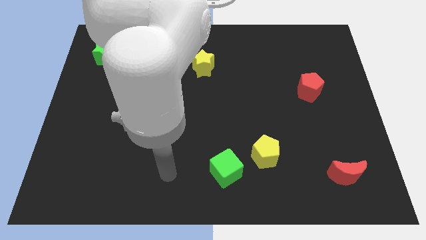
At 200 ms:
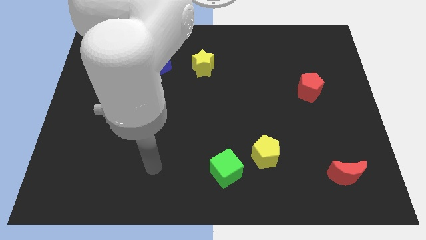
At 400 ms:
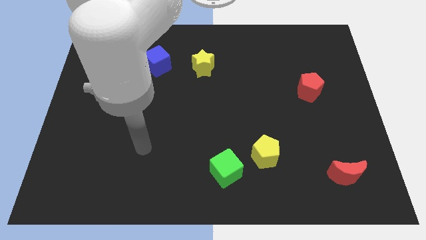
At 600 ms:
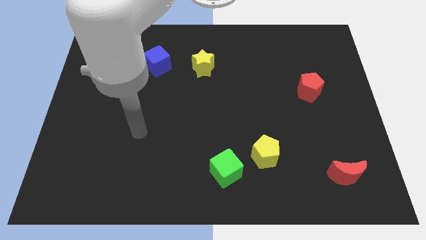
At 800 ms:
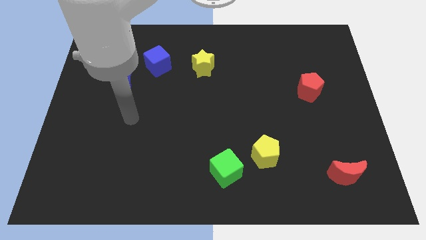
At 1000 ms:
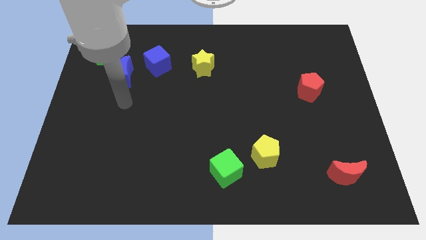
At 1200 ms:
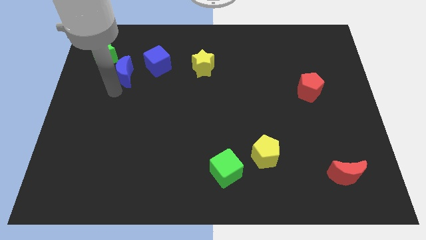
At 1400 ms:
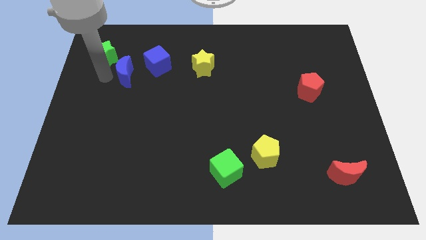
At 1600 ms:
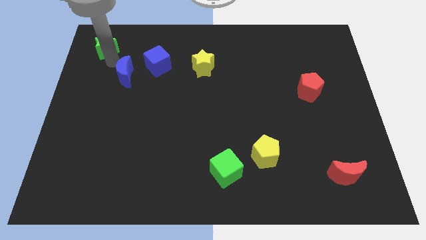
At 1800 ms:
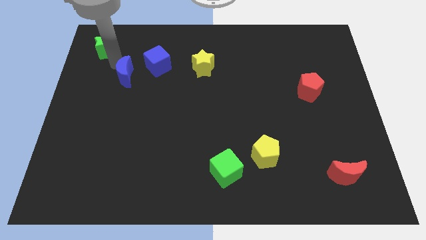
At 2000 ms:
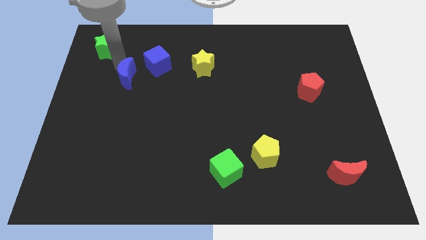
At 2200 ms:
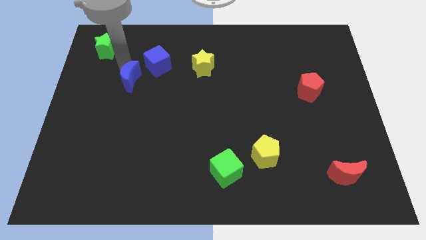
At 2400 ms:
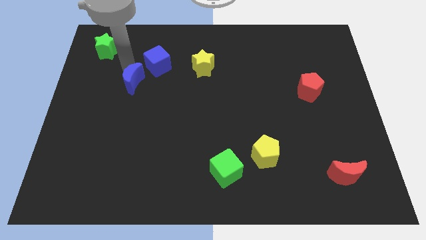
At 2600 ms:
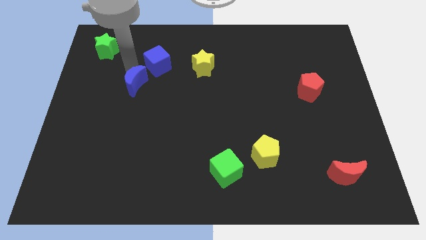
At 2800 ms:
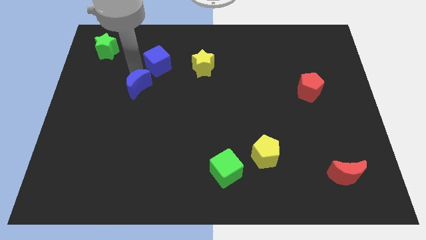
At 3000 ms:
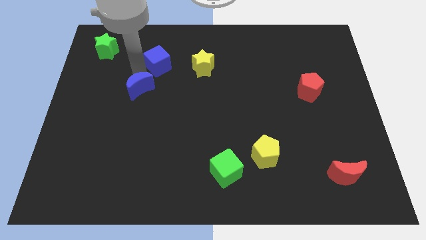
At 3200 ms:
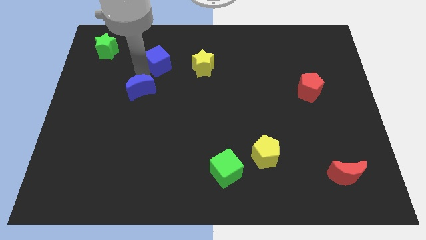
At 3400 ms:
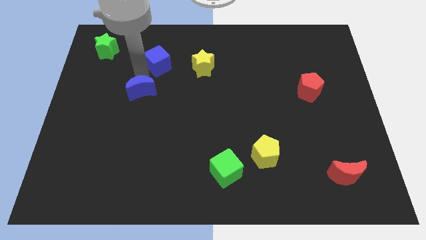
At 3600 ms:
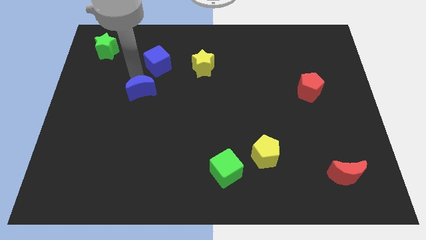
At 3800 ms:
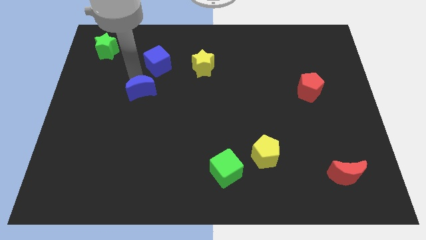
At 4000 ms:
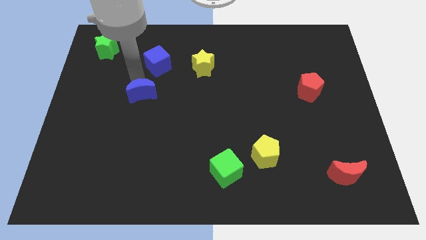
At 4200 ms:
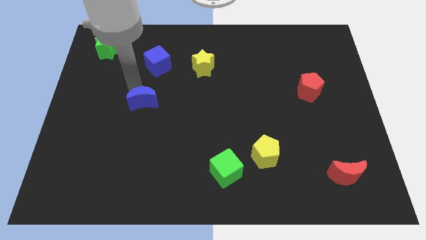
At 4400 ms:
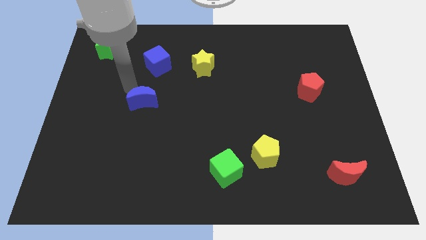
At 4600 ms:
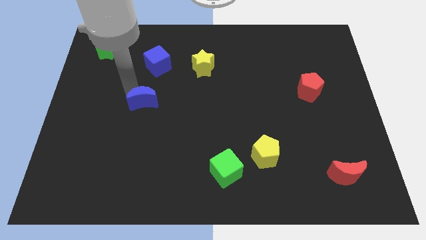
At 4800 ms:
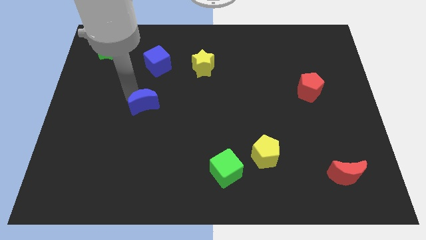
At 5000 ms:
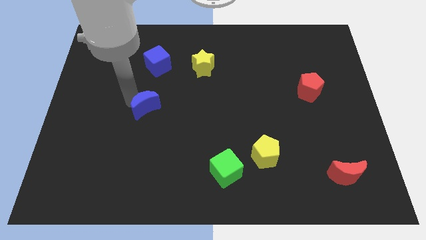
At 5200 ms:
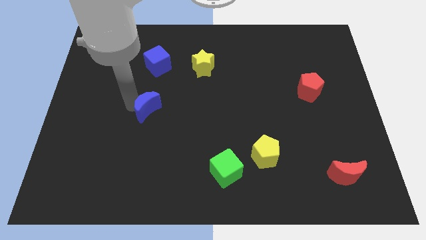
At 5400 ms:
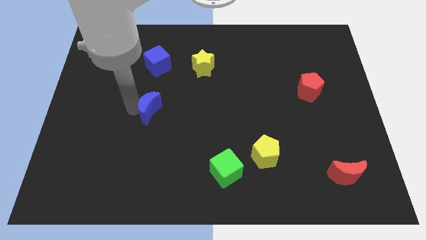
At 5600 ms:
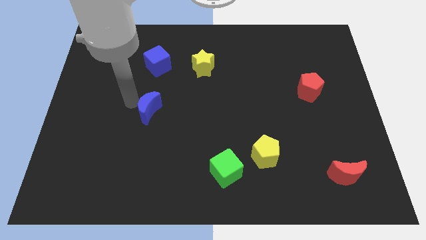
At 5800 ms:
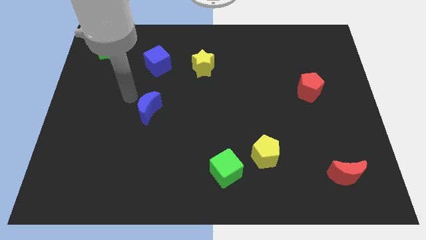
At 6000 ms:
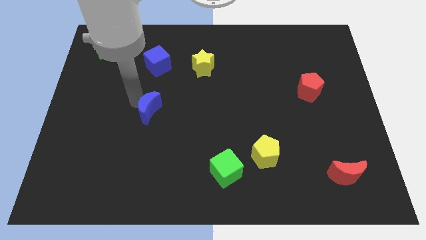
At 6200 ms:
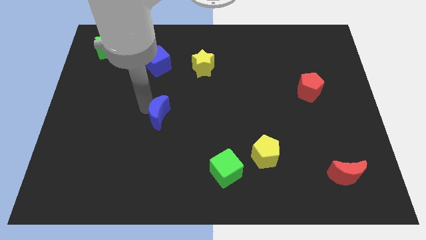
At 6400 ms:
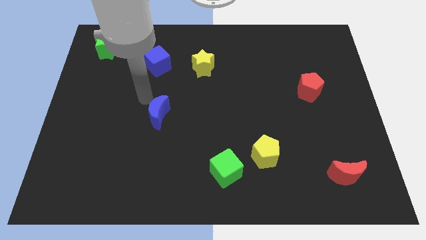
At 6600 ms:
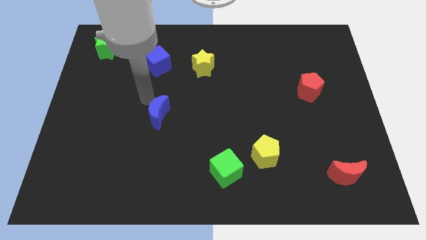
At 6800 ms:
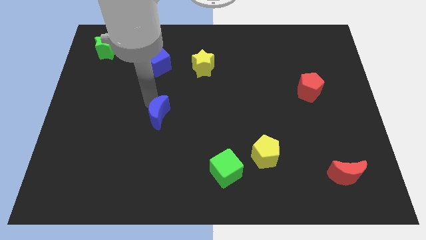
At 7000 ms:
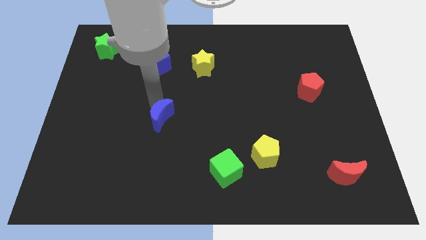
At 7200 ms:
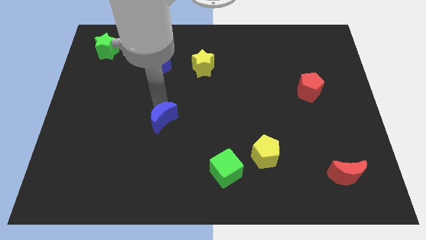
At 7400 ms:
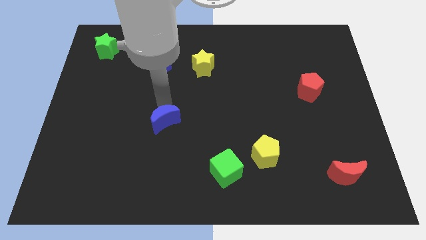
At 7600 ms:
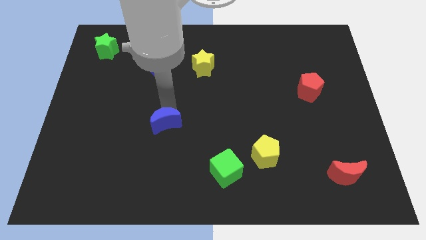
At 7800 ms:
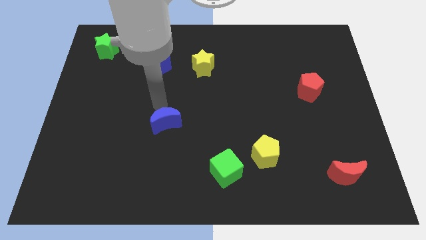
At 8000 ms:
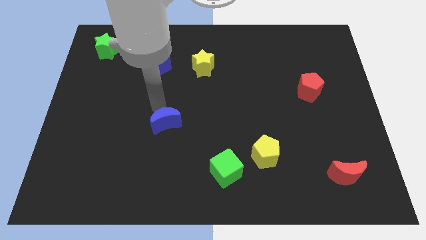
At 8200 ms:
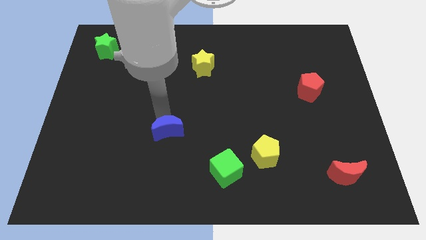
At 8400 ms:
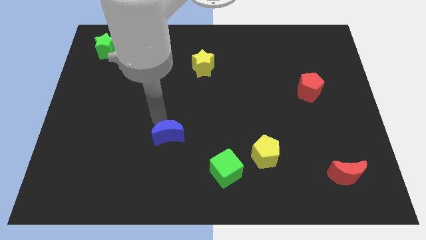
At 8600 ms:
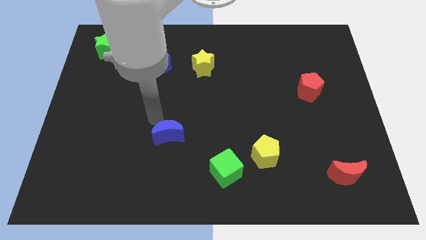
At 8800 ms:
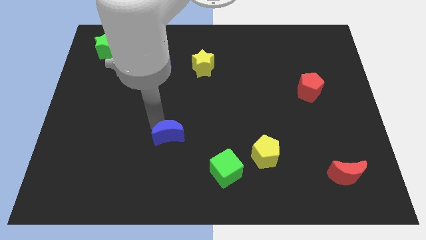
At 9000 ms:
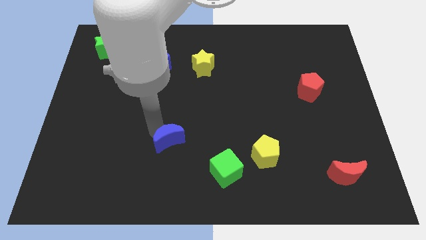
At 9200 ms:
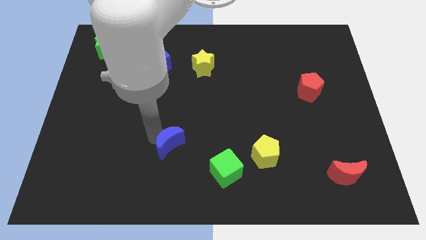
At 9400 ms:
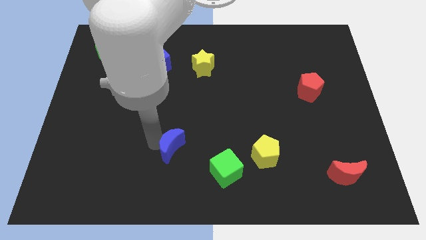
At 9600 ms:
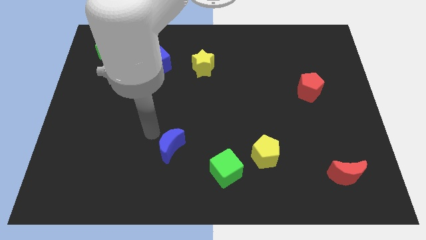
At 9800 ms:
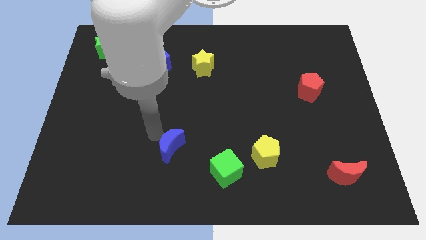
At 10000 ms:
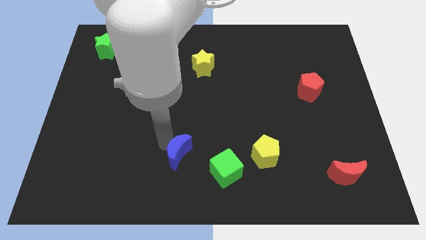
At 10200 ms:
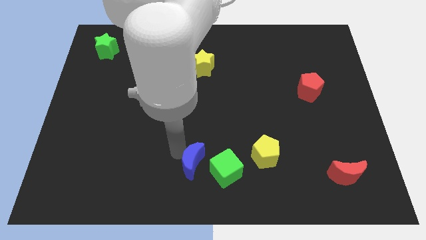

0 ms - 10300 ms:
put the blue moon to the bottom side

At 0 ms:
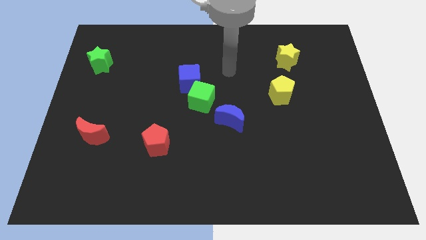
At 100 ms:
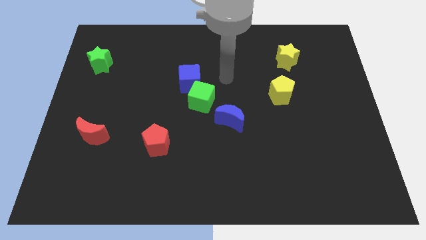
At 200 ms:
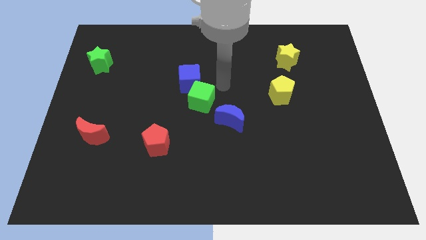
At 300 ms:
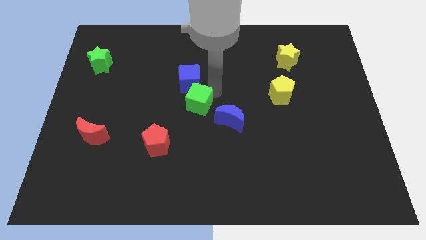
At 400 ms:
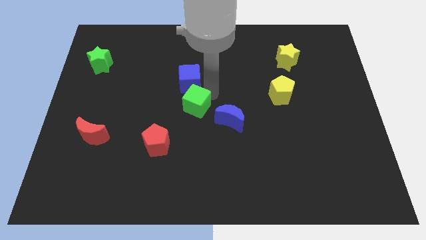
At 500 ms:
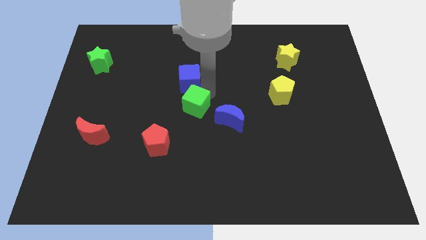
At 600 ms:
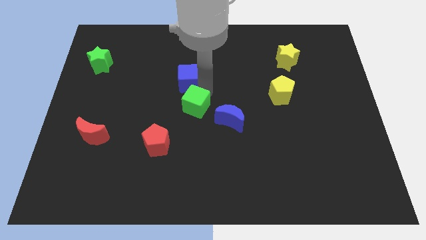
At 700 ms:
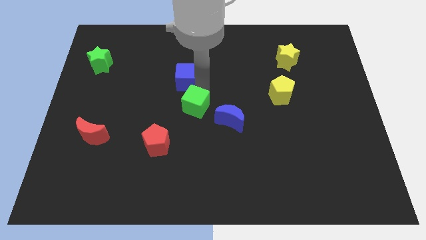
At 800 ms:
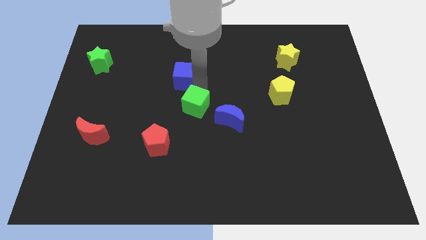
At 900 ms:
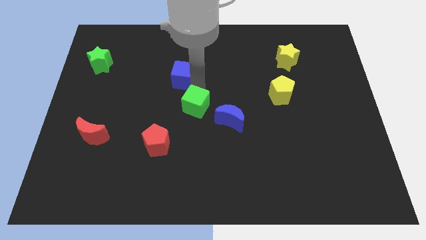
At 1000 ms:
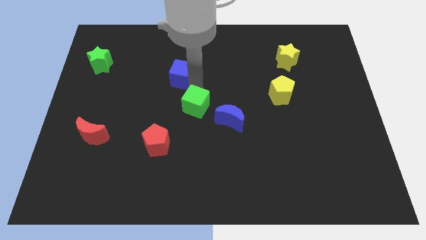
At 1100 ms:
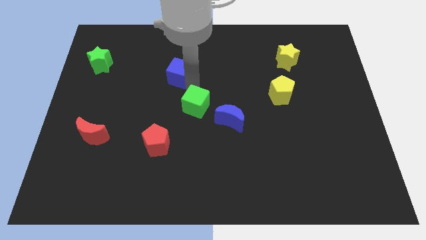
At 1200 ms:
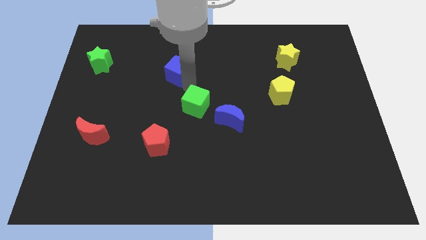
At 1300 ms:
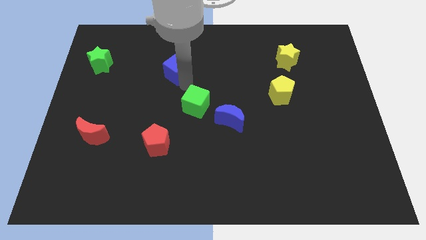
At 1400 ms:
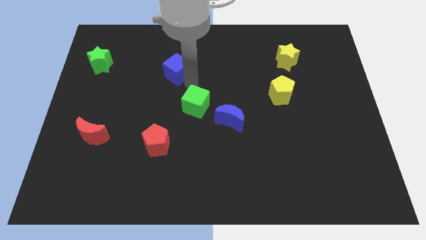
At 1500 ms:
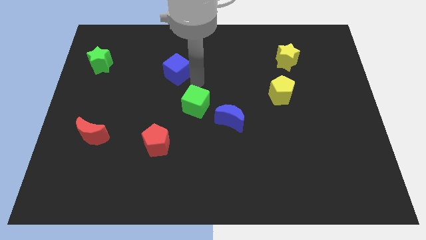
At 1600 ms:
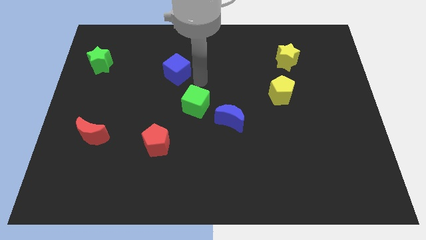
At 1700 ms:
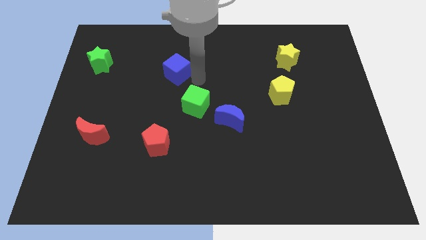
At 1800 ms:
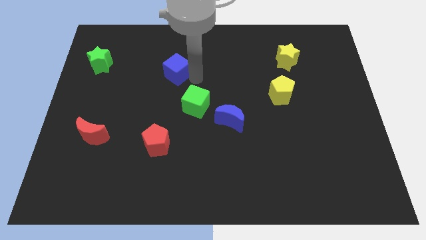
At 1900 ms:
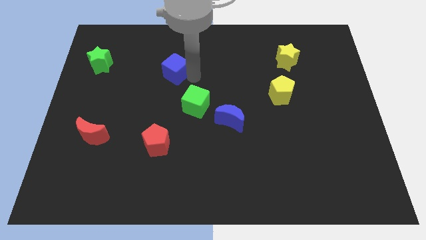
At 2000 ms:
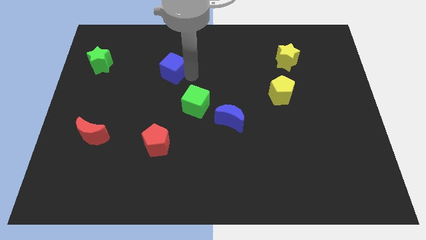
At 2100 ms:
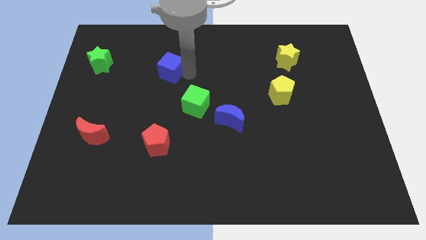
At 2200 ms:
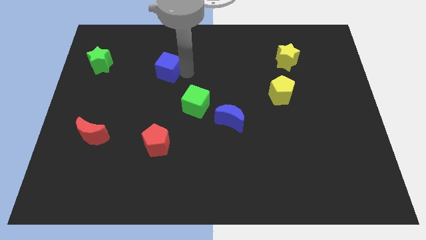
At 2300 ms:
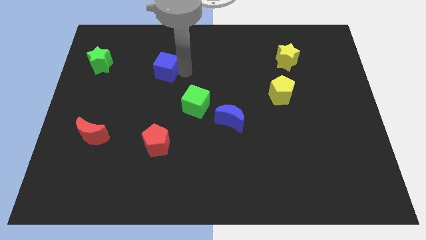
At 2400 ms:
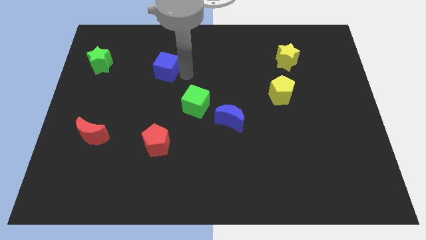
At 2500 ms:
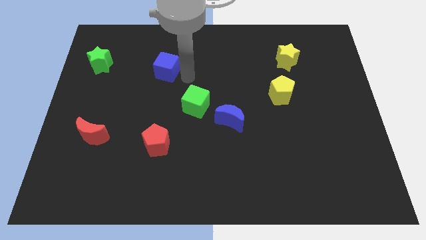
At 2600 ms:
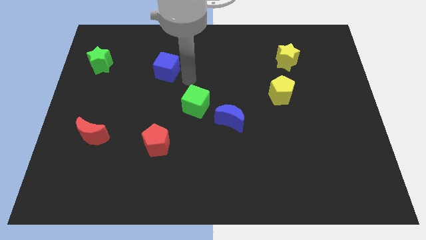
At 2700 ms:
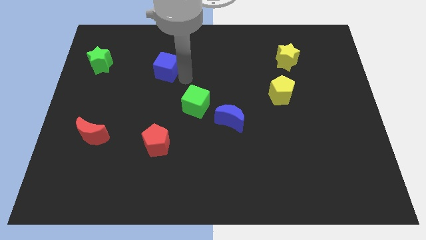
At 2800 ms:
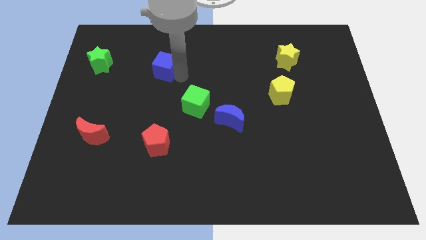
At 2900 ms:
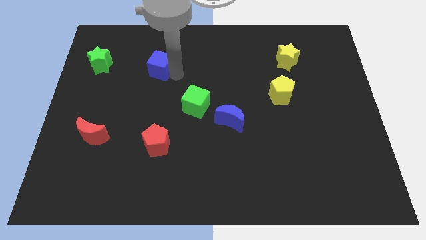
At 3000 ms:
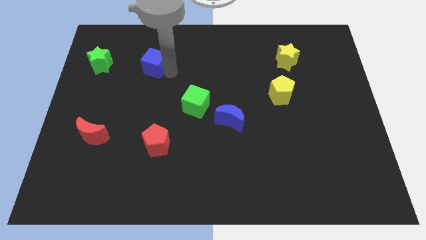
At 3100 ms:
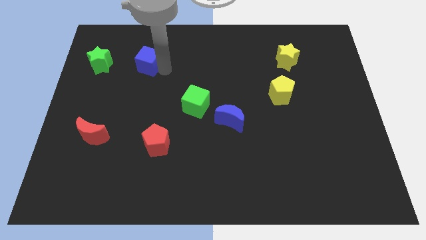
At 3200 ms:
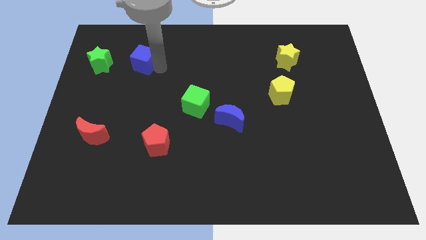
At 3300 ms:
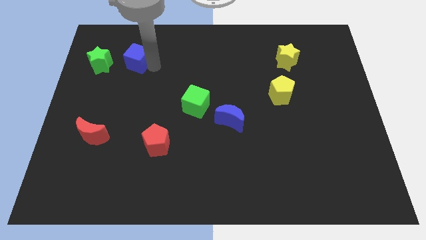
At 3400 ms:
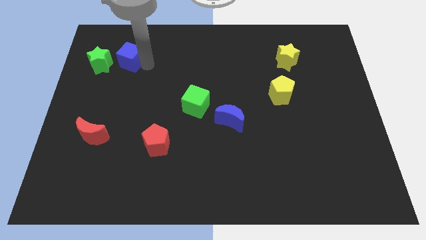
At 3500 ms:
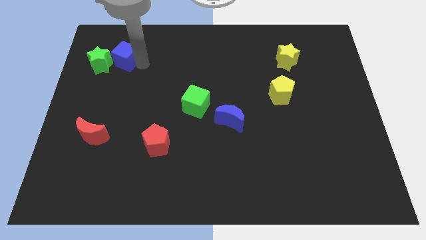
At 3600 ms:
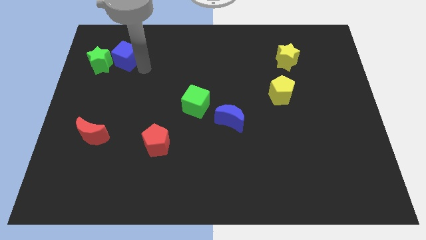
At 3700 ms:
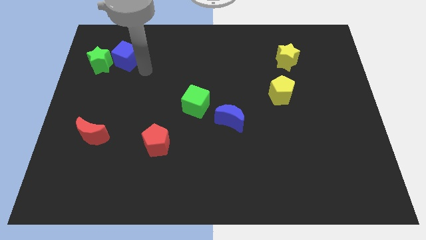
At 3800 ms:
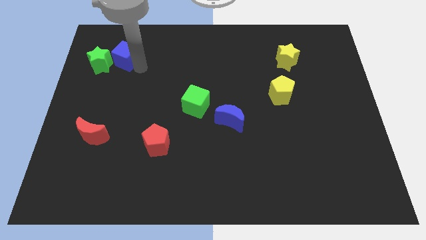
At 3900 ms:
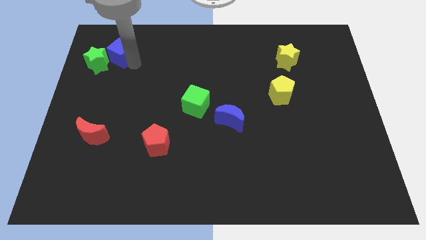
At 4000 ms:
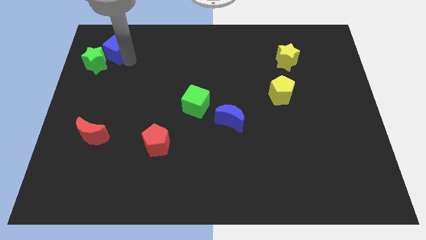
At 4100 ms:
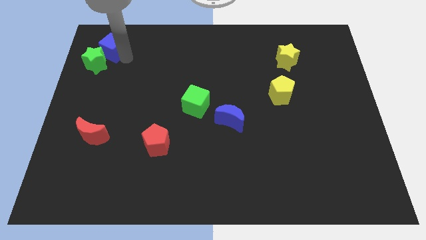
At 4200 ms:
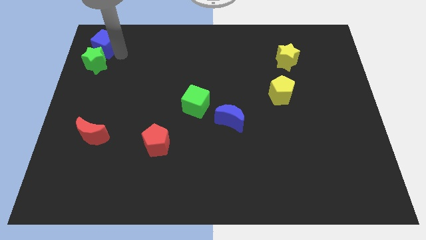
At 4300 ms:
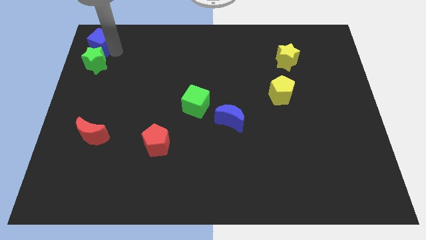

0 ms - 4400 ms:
put the blue cube to the top left corner
